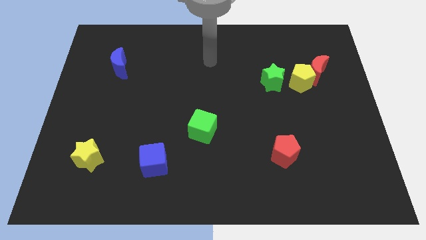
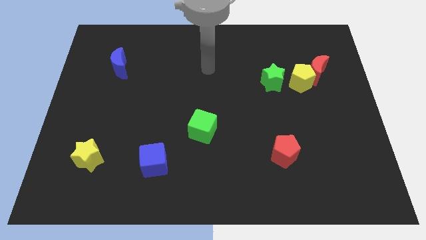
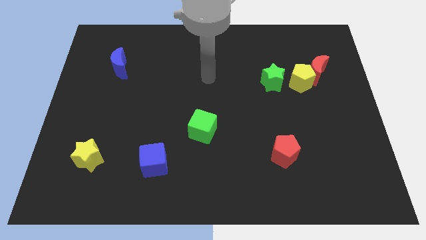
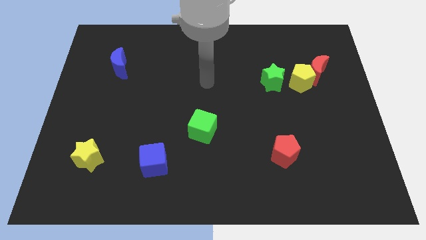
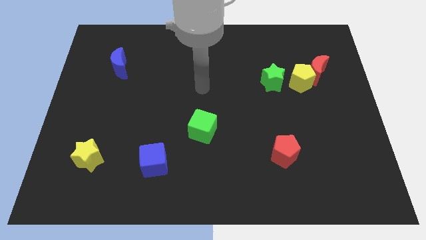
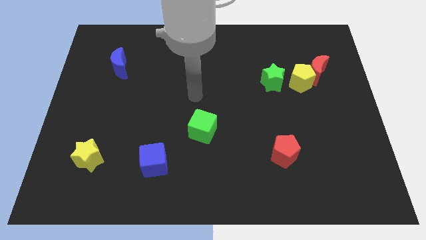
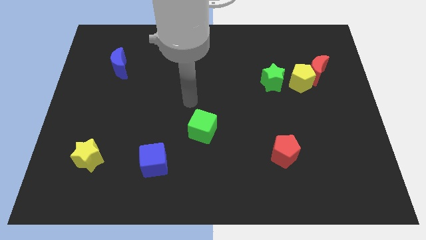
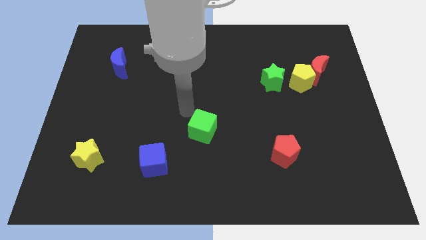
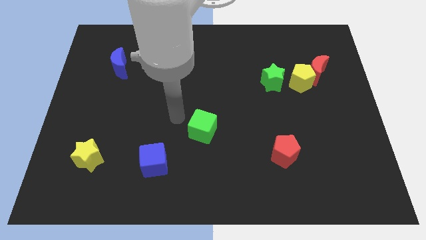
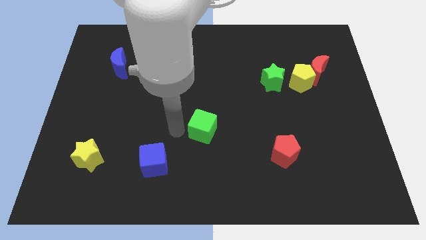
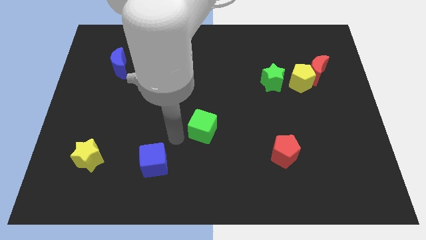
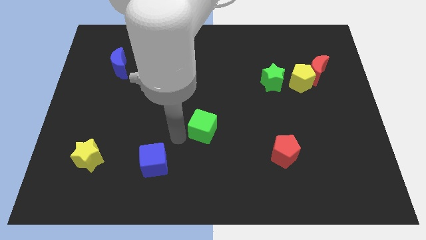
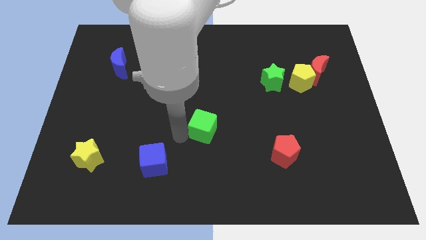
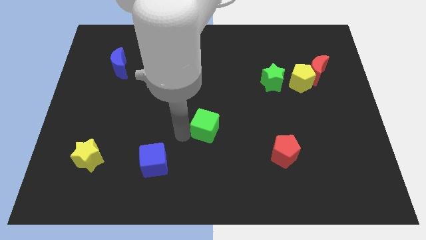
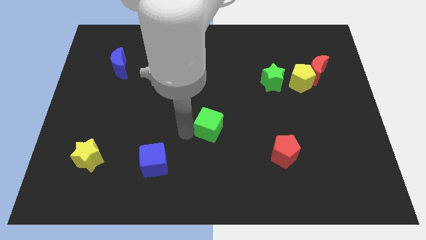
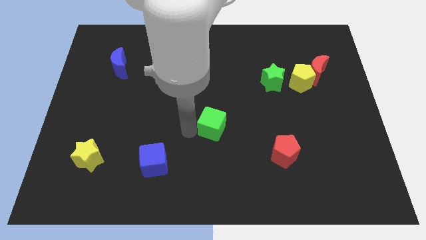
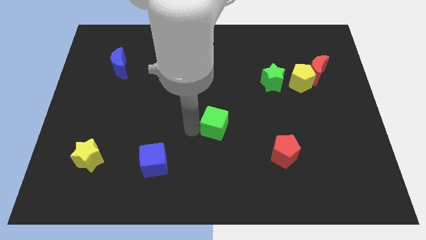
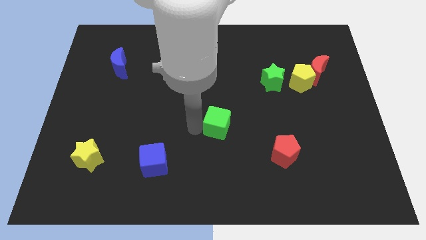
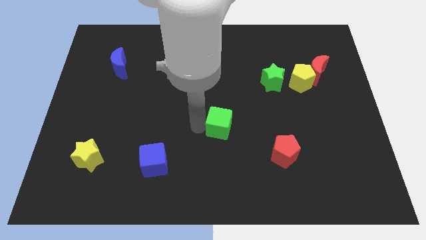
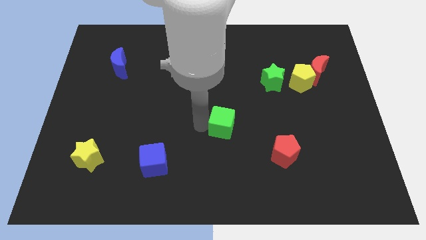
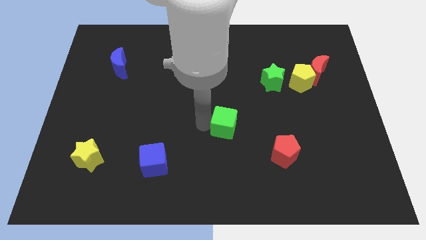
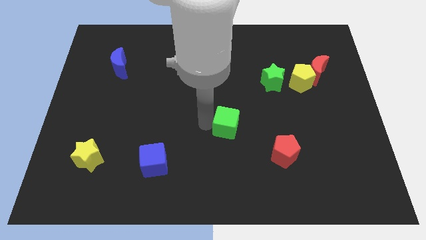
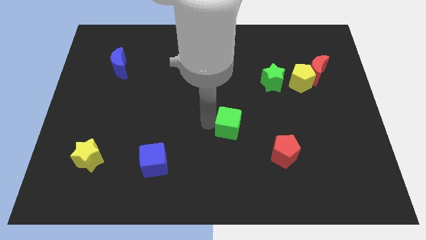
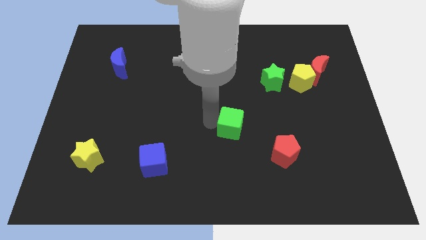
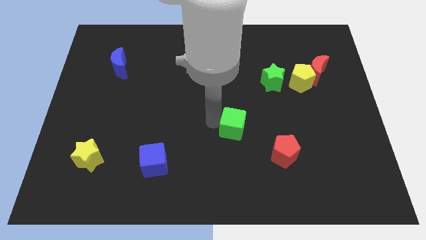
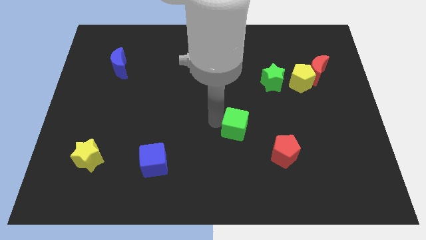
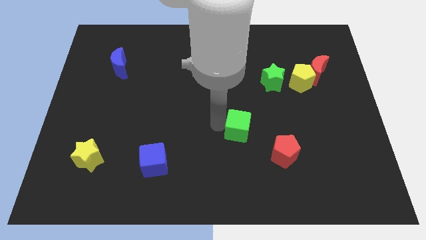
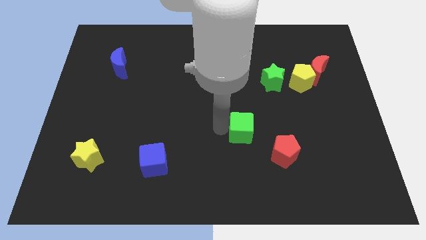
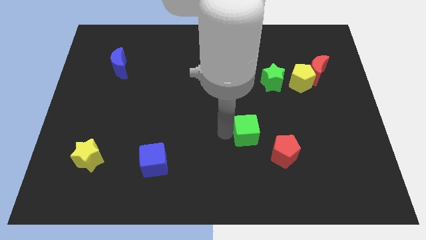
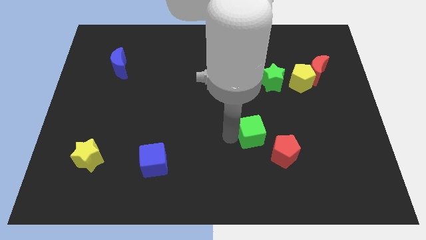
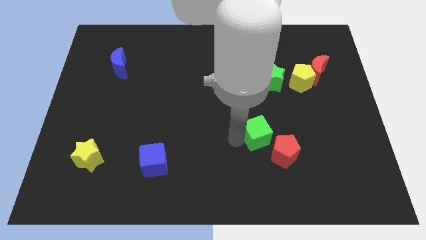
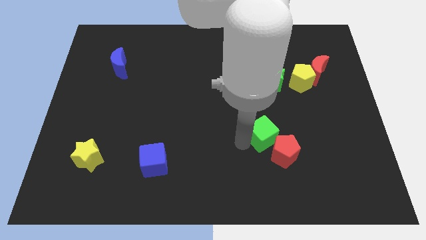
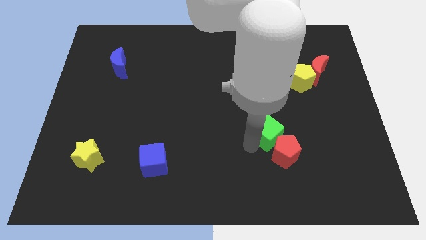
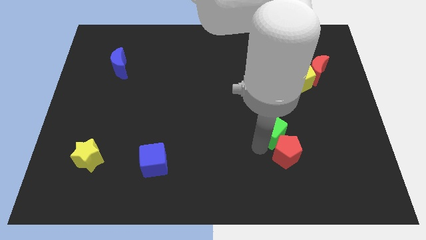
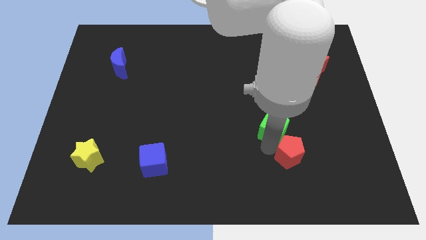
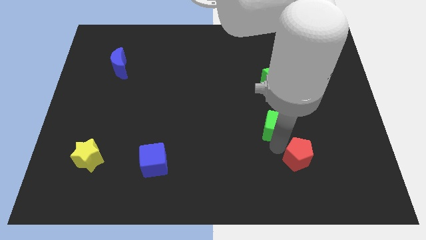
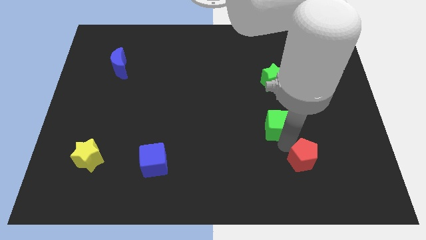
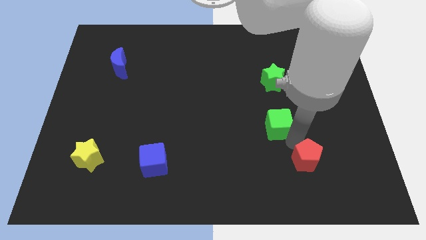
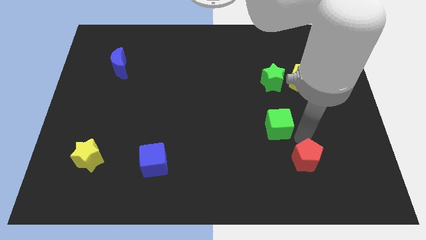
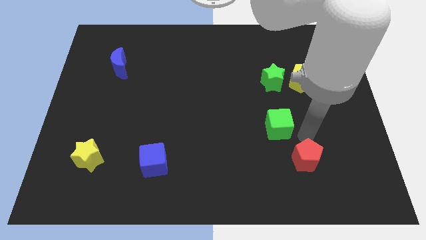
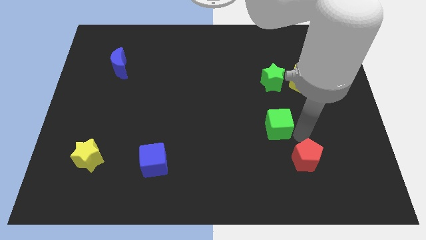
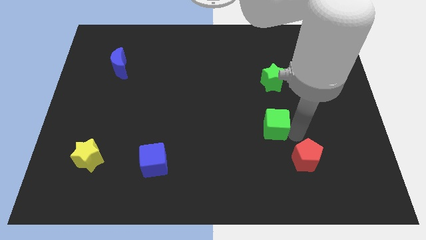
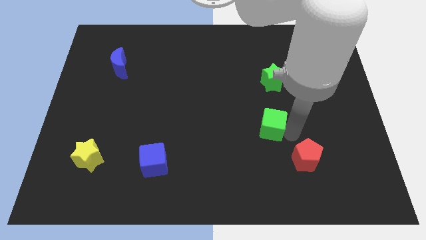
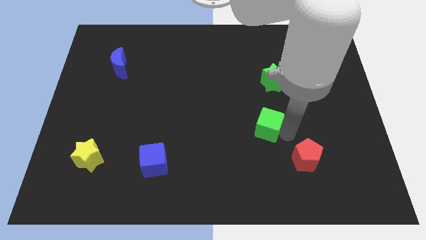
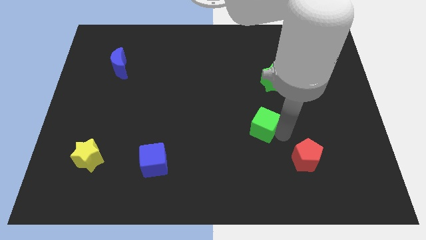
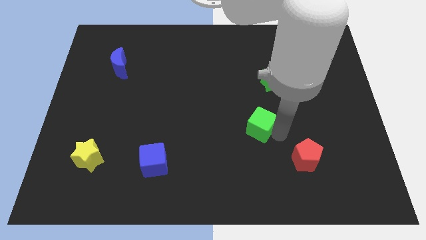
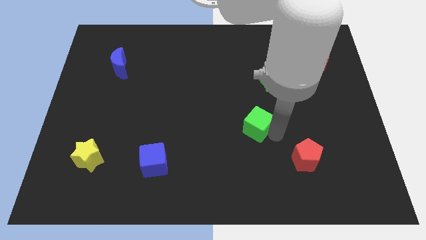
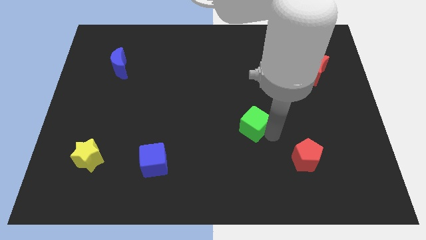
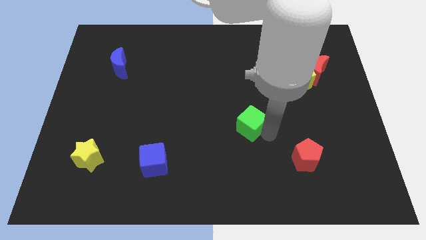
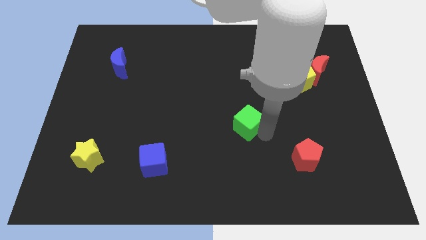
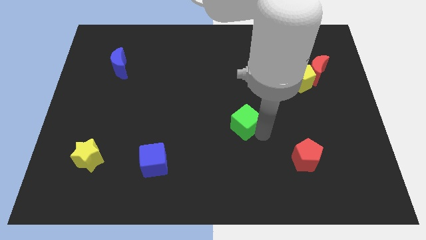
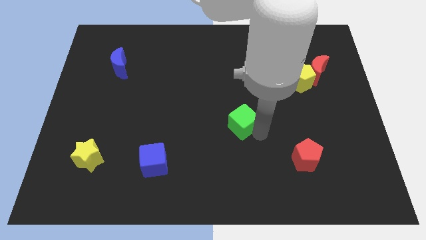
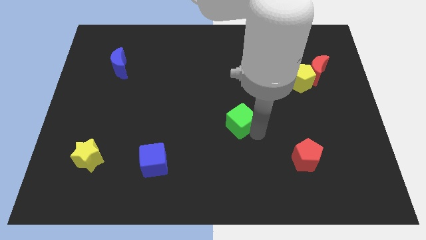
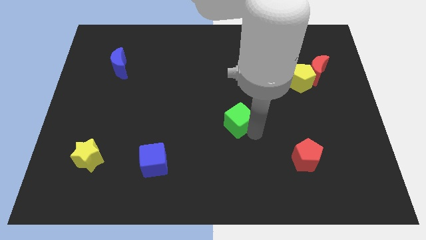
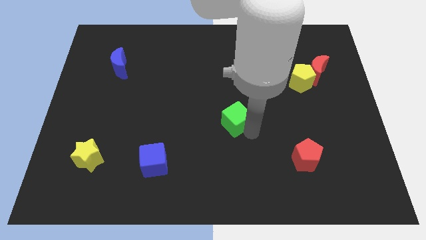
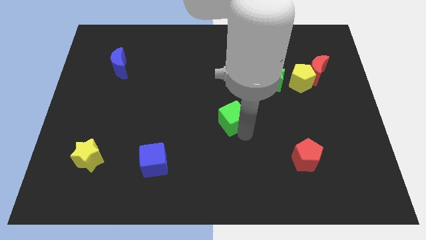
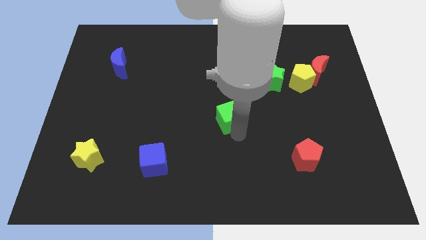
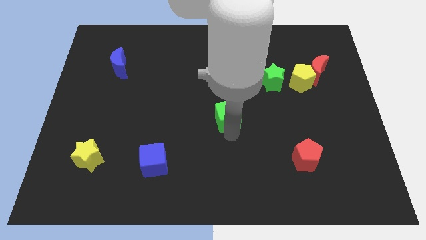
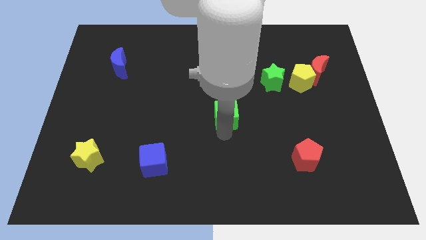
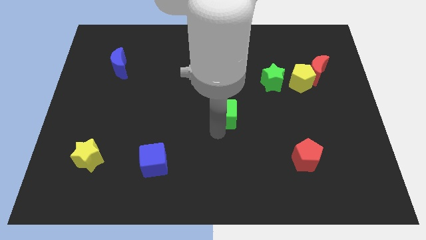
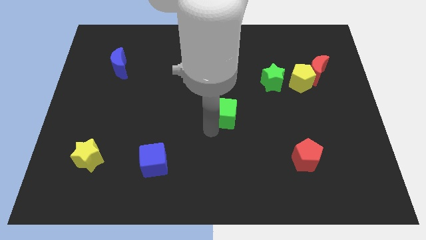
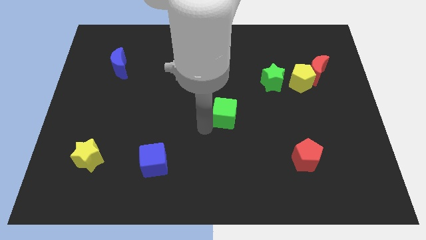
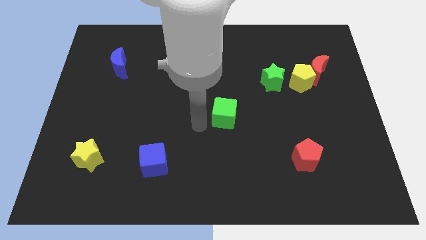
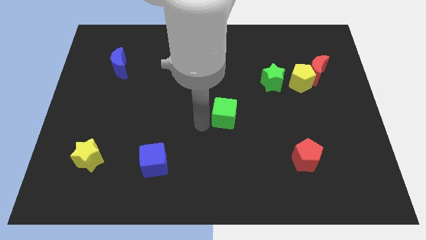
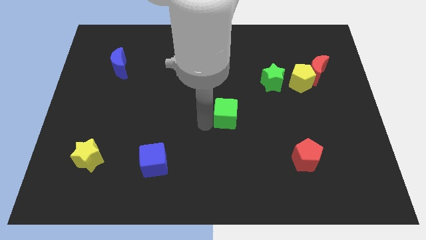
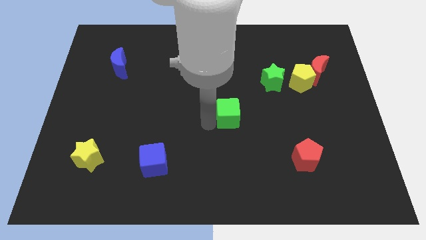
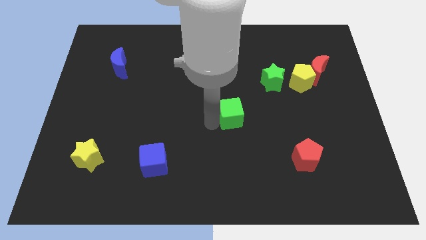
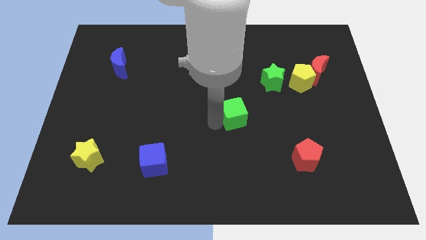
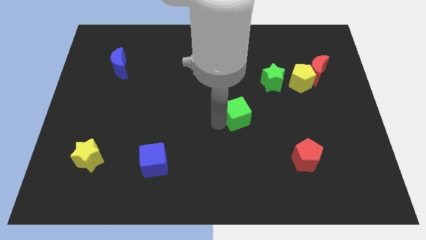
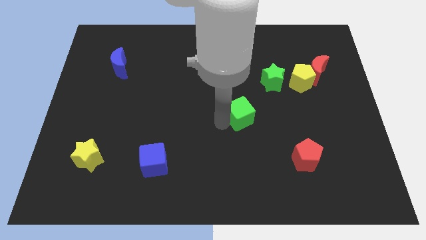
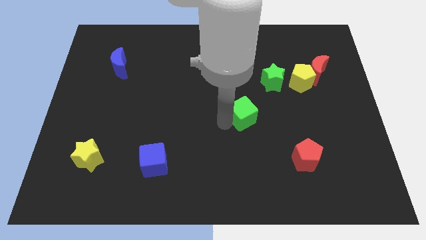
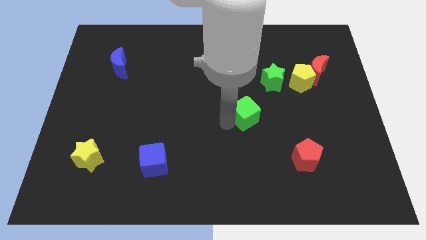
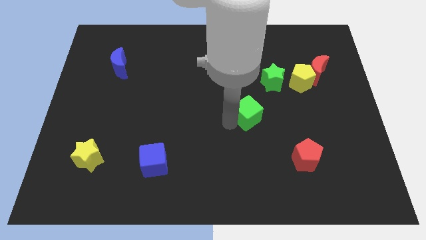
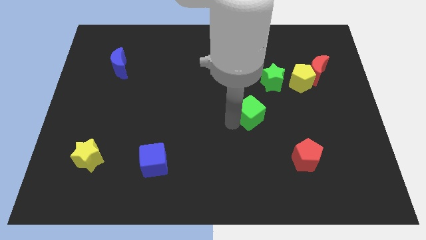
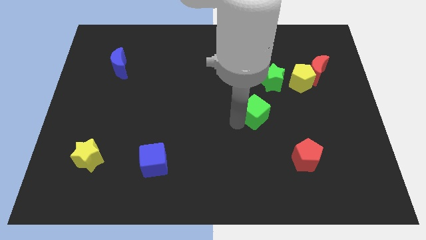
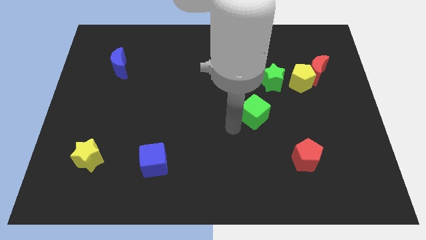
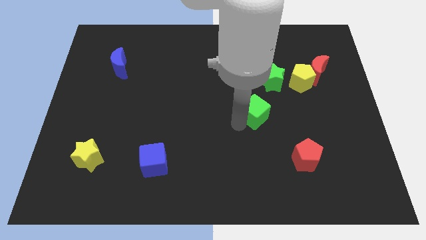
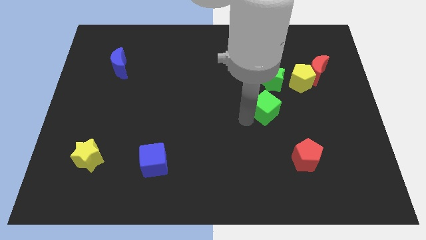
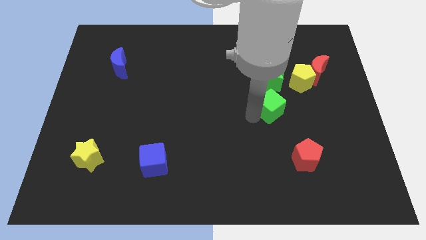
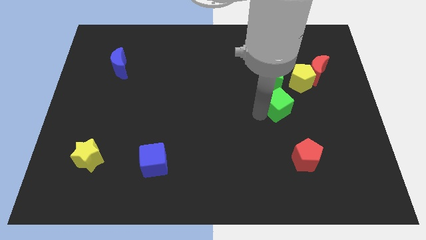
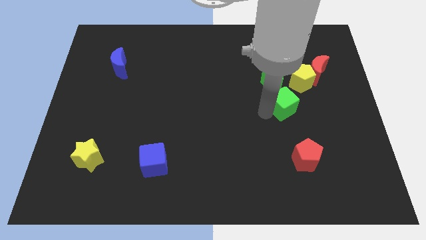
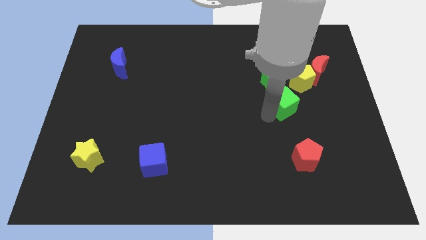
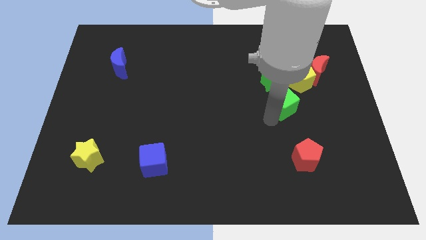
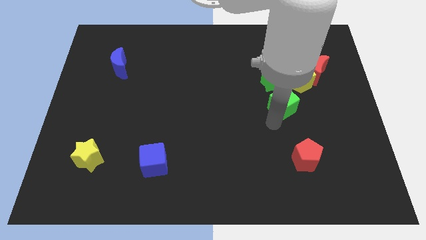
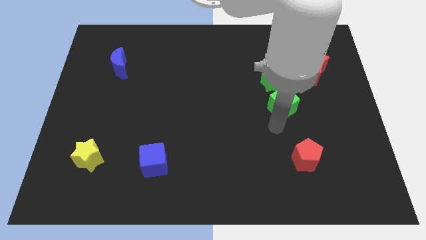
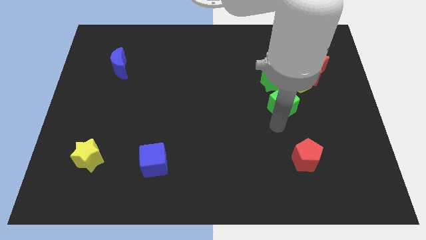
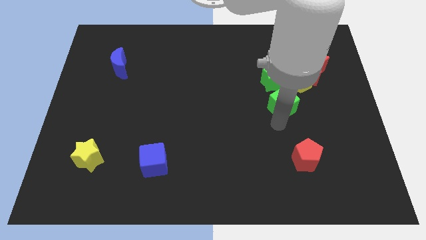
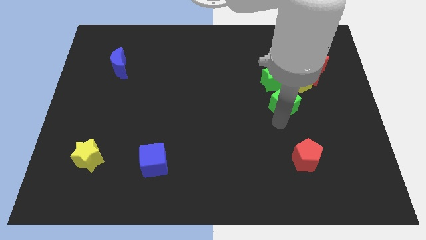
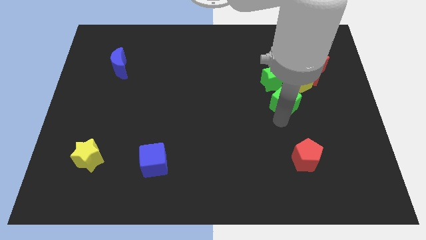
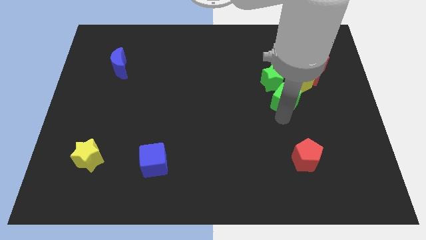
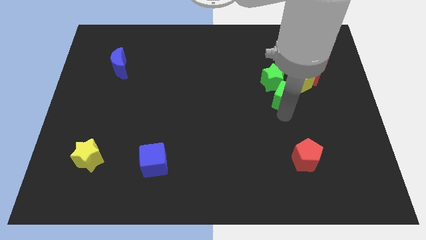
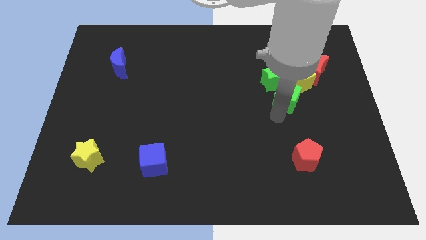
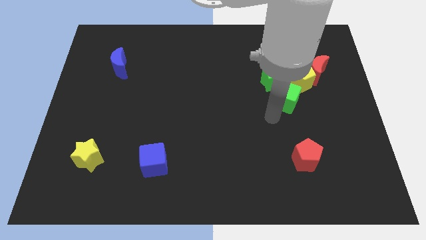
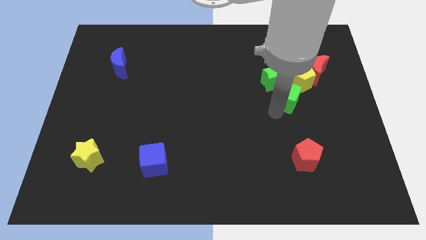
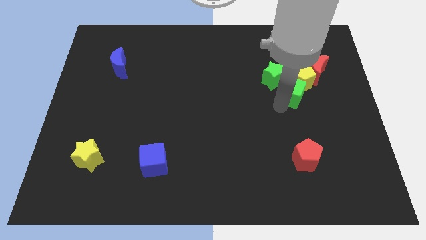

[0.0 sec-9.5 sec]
put the green cube close to the yellow pentagon
